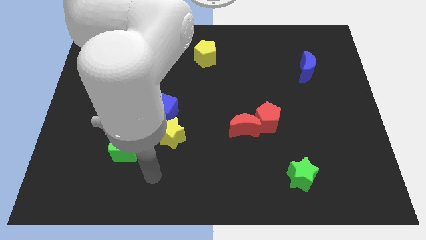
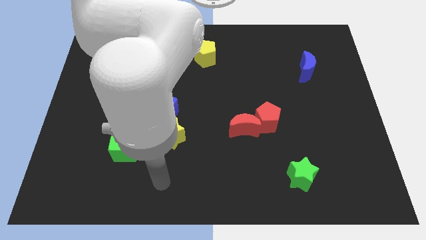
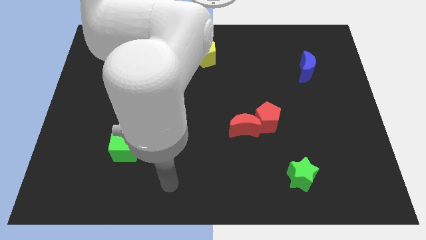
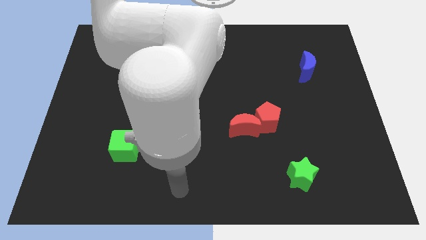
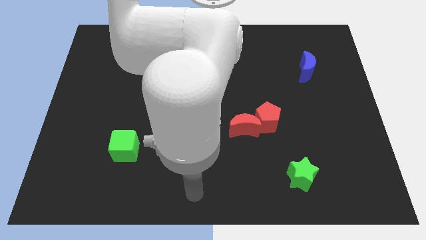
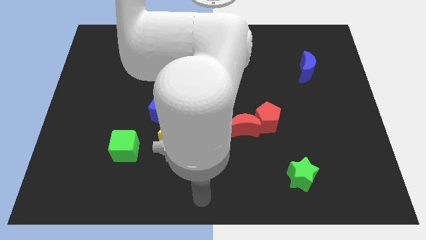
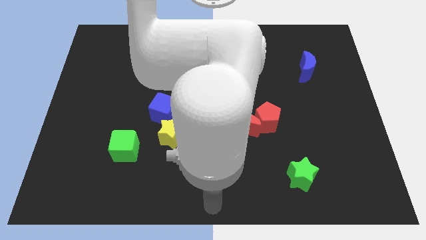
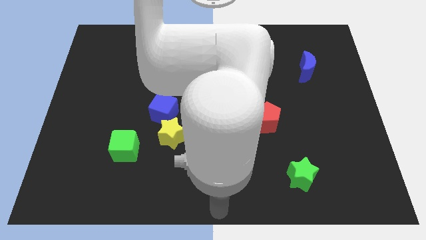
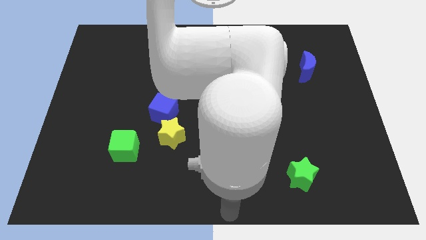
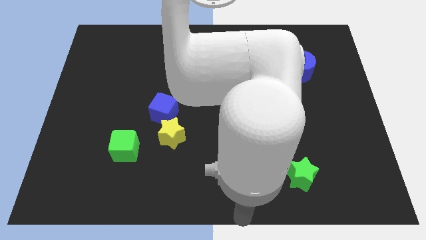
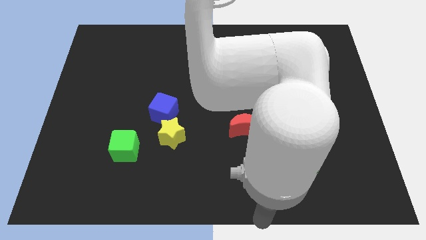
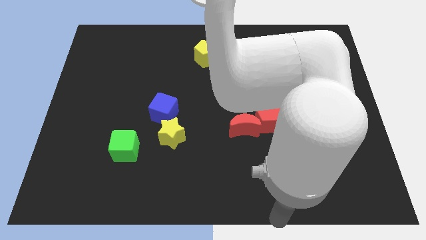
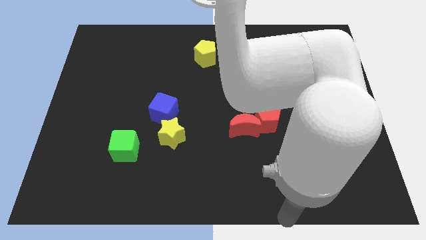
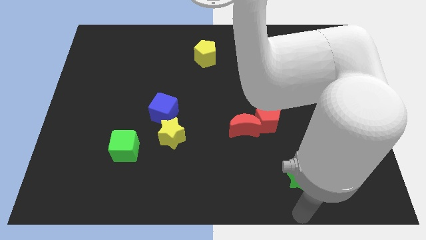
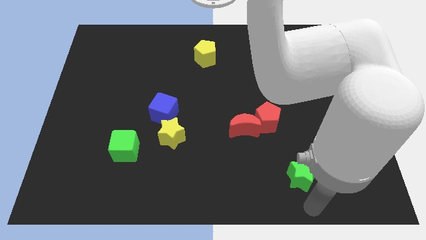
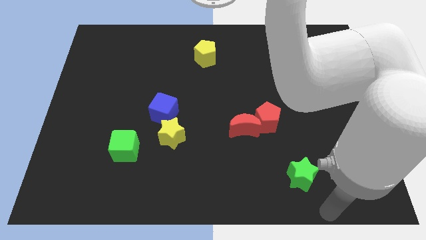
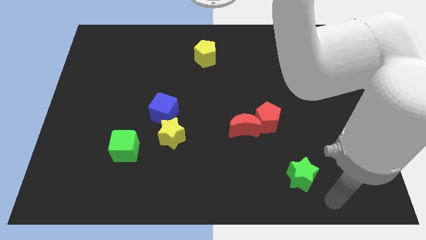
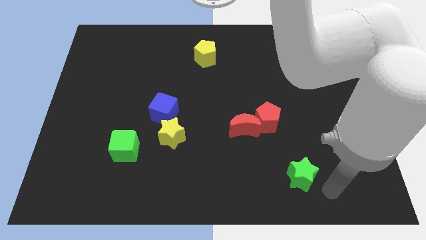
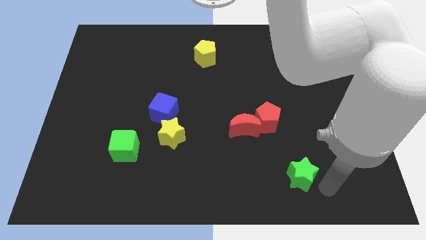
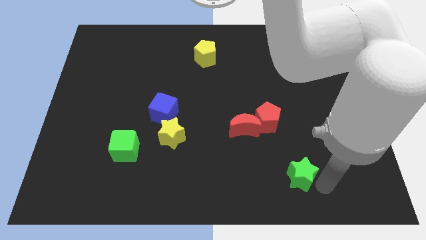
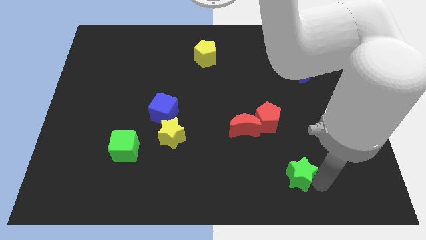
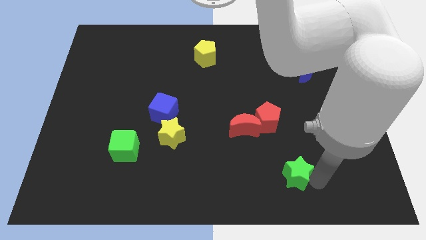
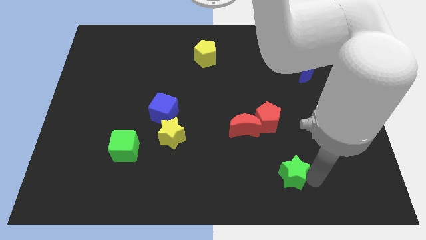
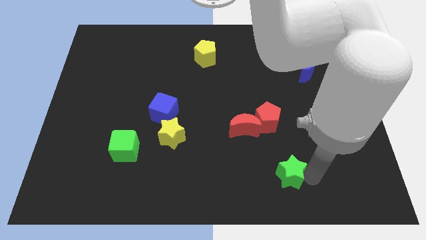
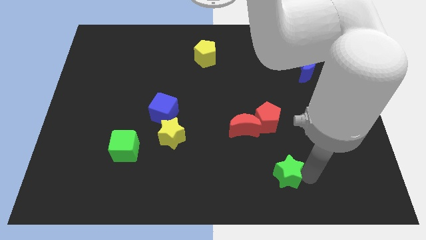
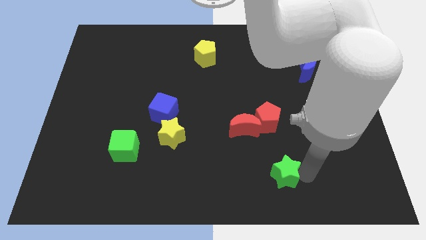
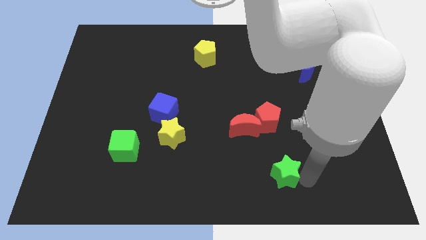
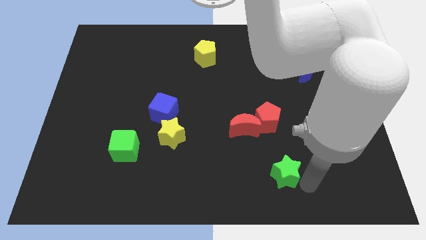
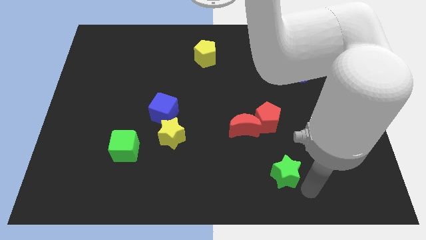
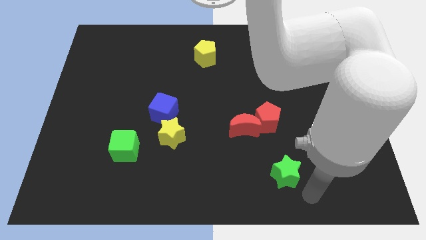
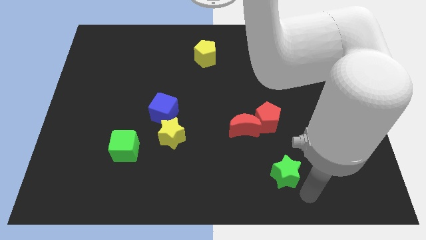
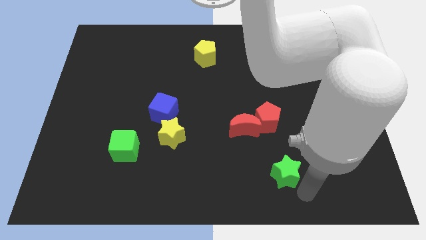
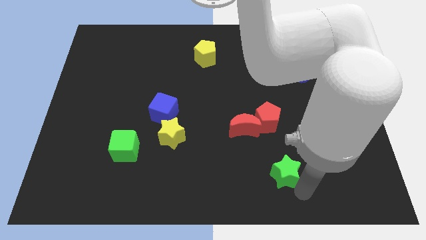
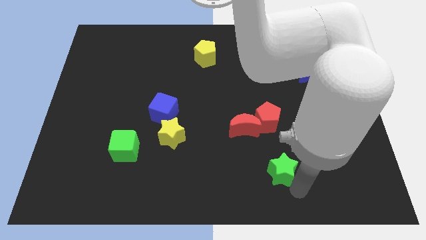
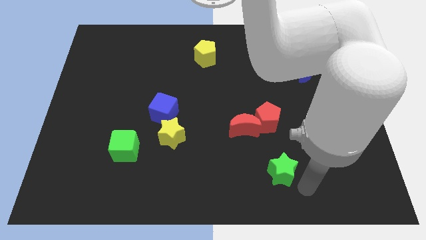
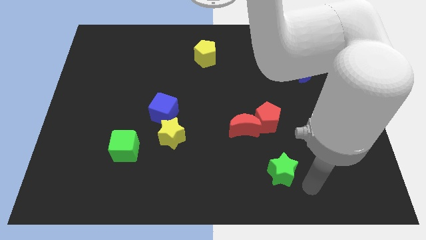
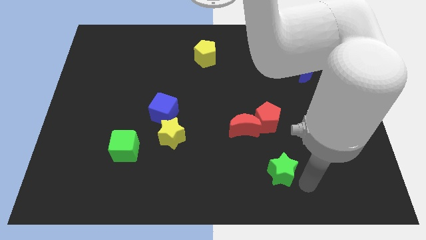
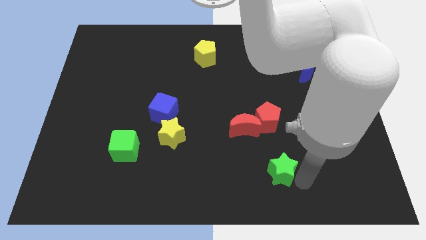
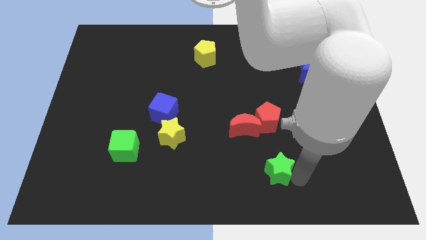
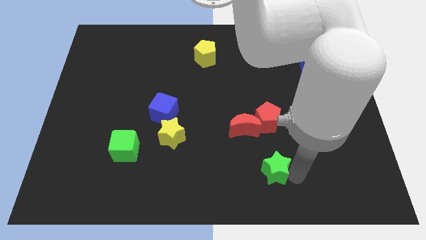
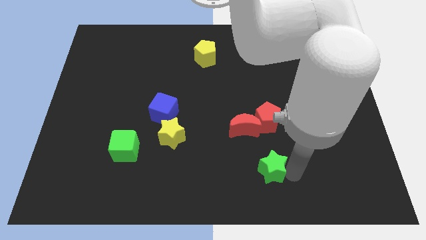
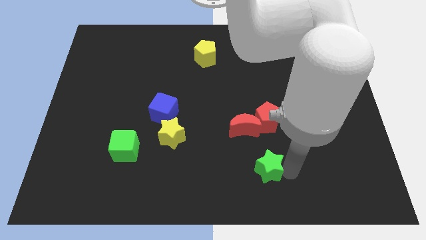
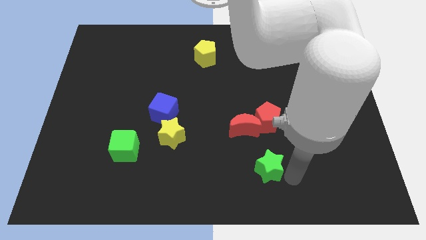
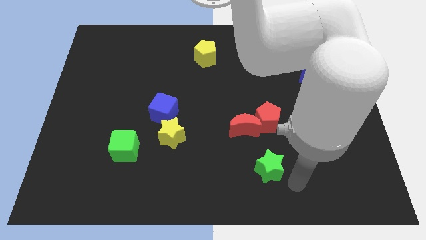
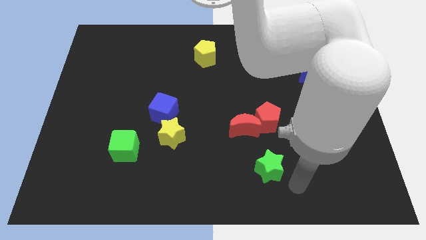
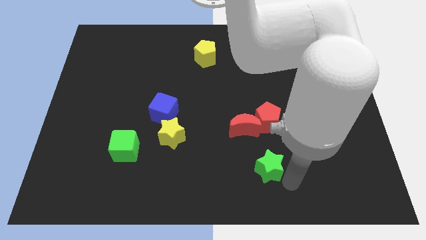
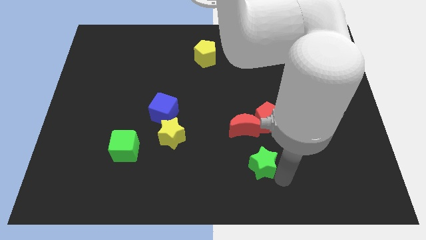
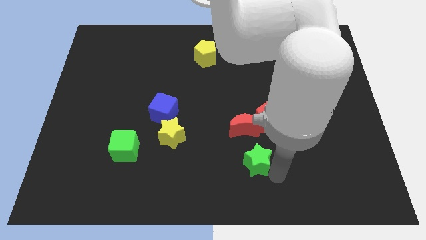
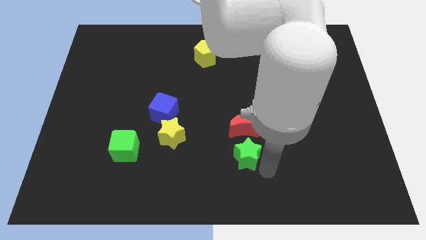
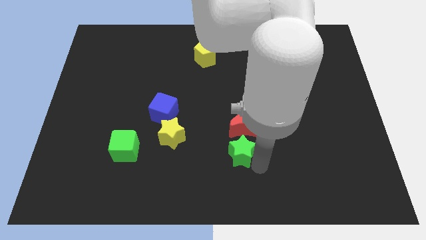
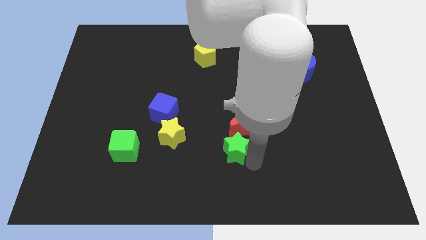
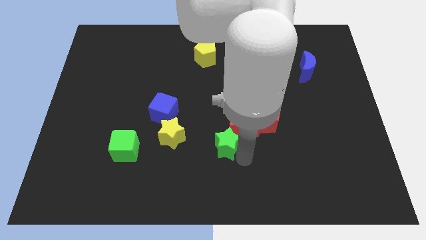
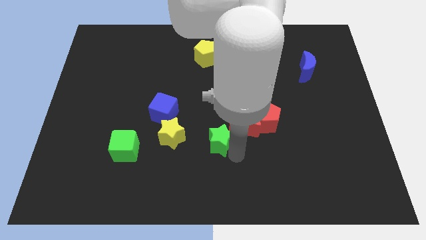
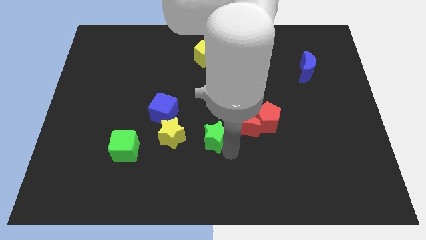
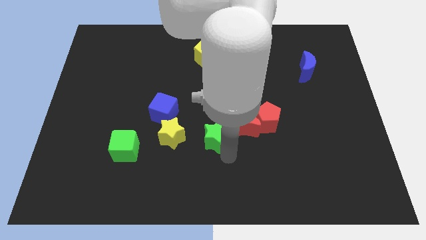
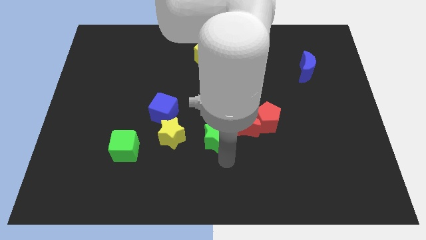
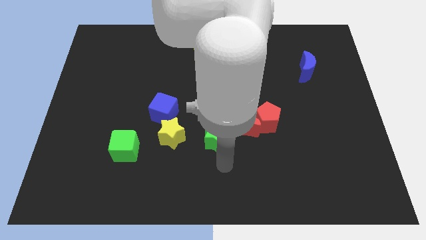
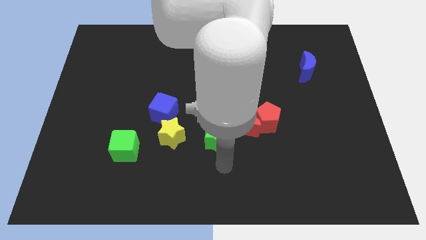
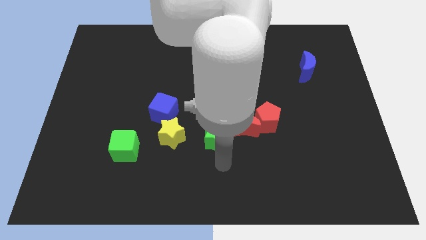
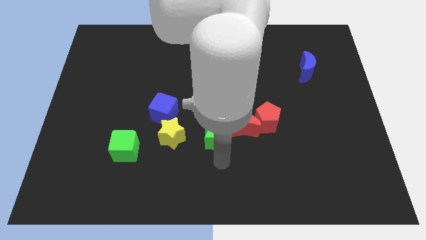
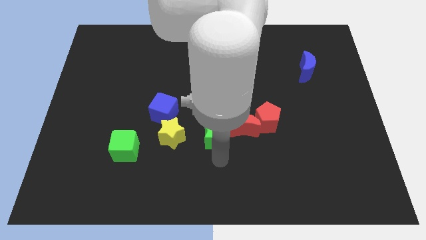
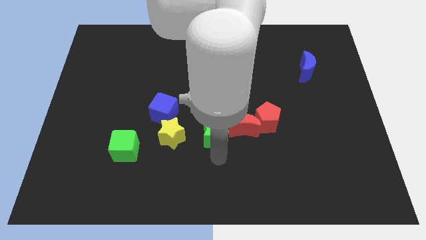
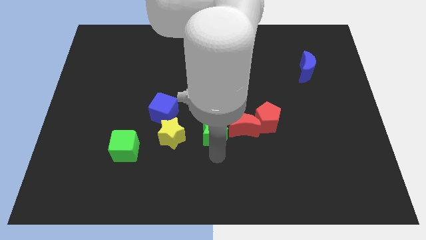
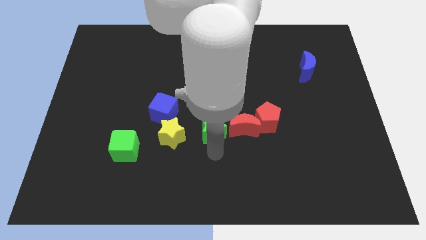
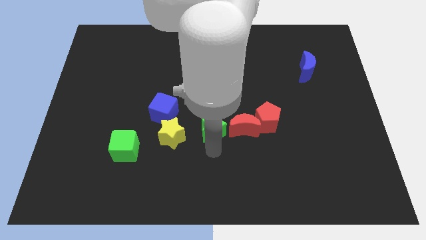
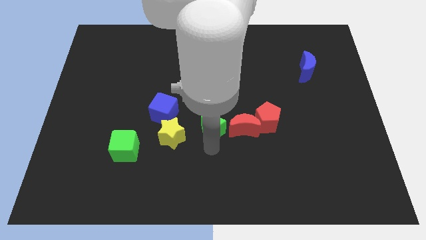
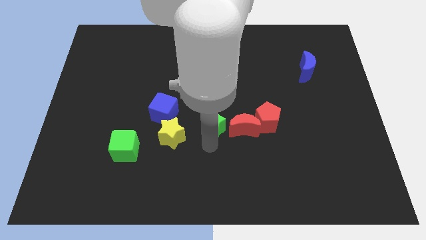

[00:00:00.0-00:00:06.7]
push the green star right of the blue cube
